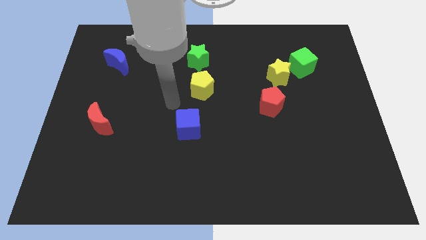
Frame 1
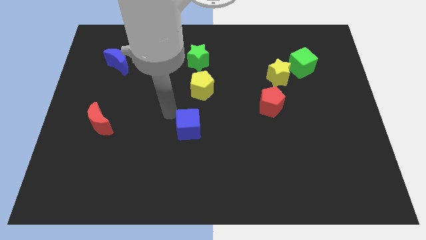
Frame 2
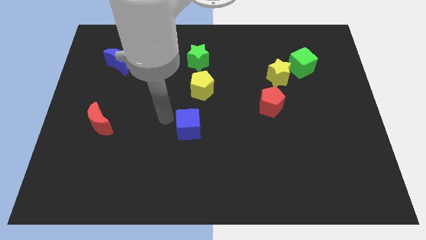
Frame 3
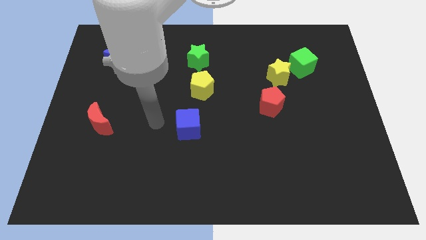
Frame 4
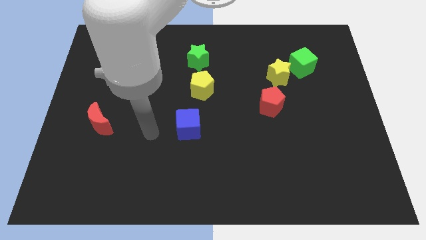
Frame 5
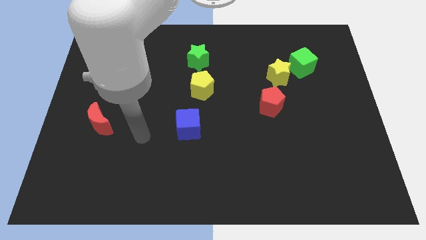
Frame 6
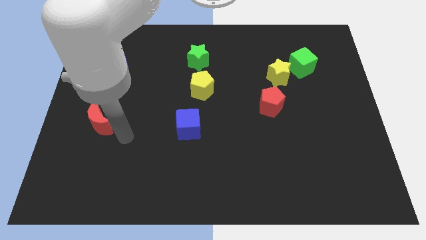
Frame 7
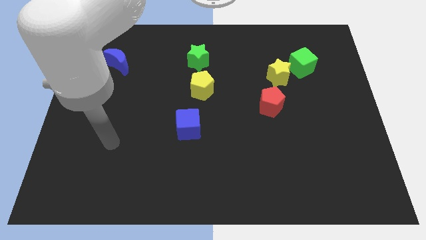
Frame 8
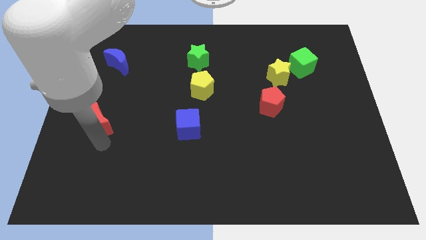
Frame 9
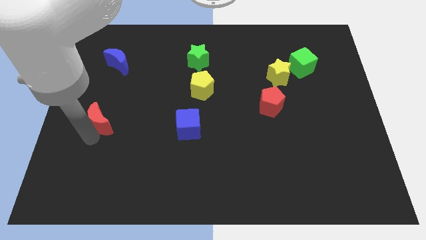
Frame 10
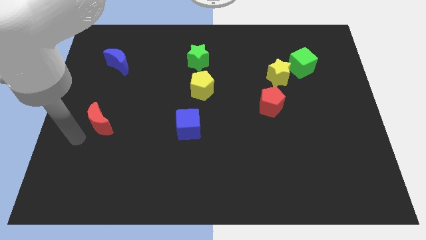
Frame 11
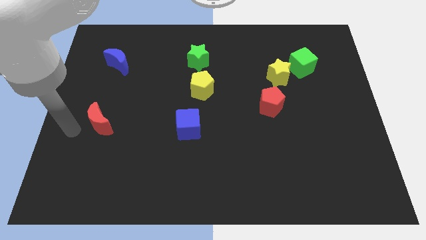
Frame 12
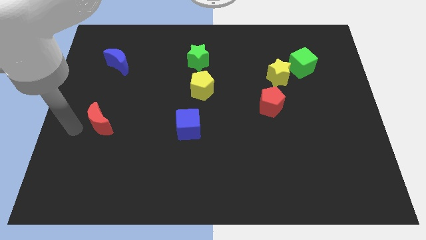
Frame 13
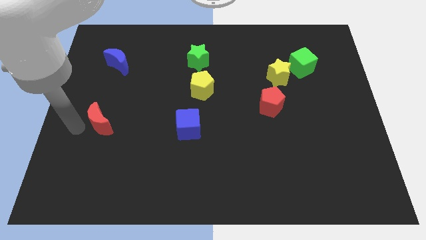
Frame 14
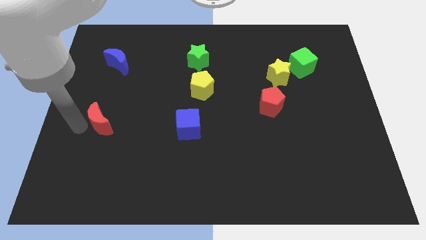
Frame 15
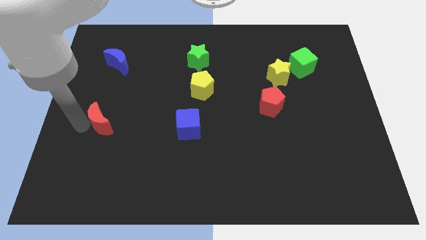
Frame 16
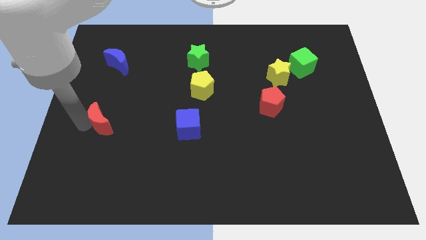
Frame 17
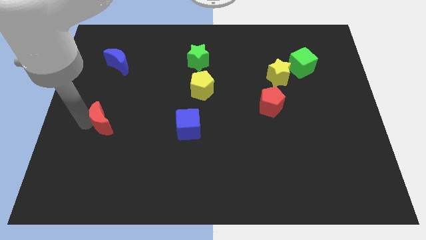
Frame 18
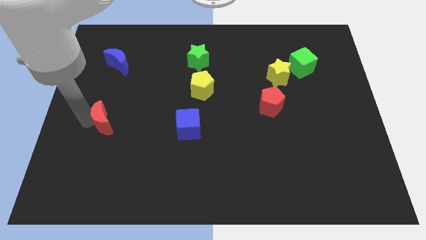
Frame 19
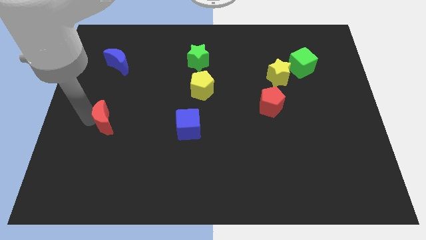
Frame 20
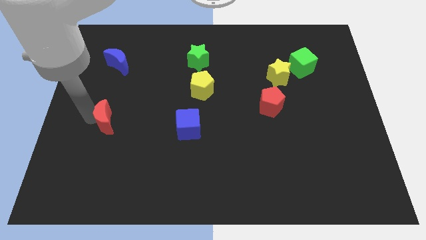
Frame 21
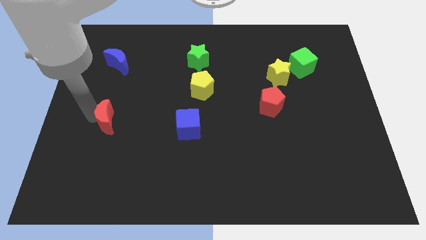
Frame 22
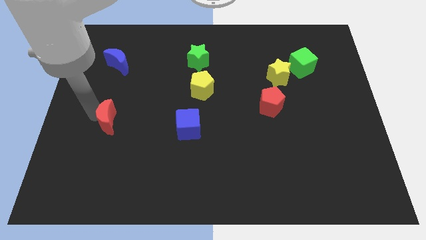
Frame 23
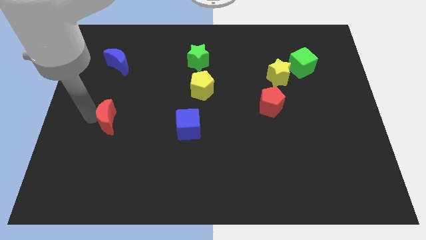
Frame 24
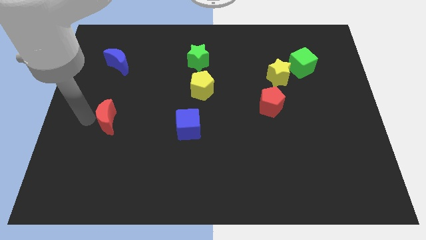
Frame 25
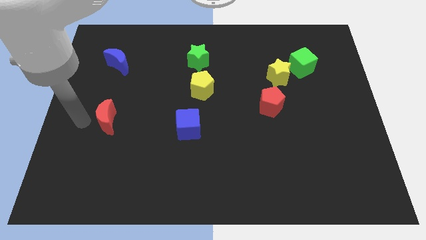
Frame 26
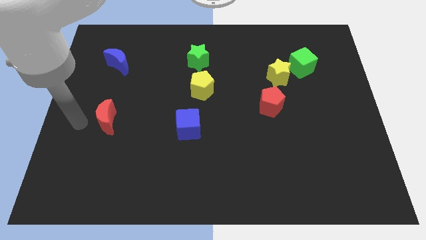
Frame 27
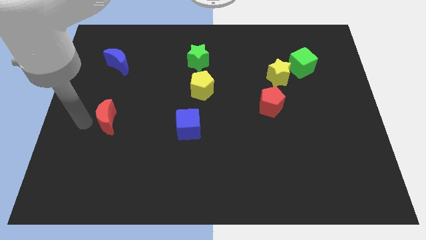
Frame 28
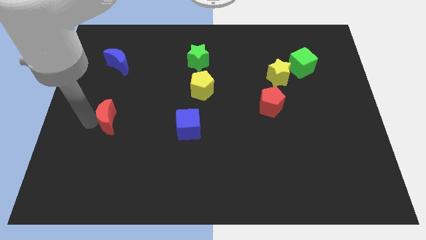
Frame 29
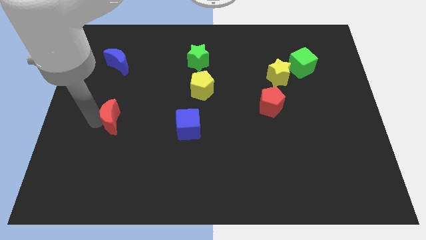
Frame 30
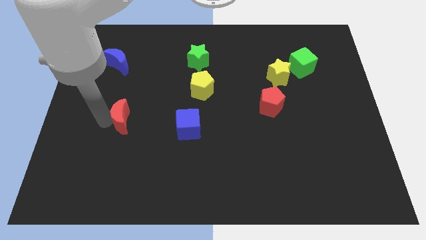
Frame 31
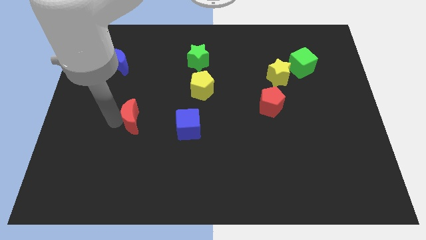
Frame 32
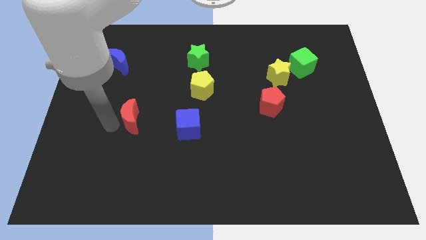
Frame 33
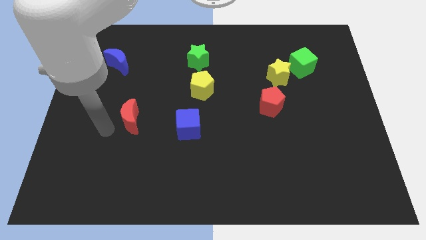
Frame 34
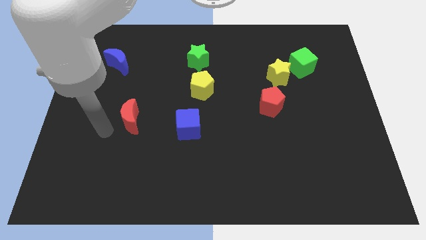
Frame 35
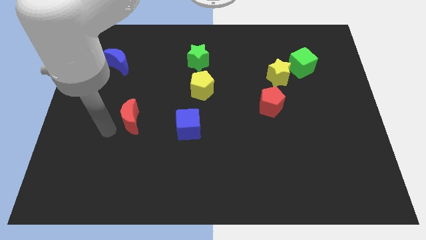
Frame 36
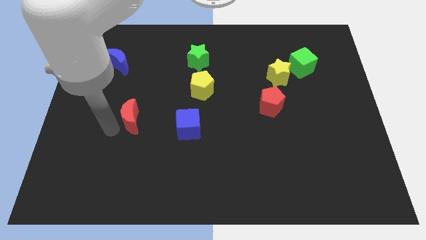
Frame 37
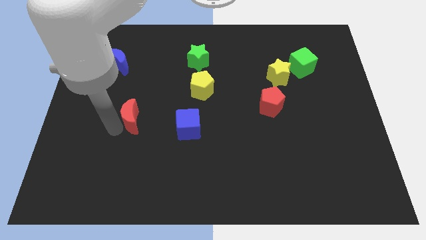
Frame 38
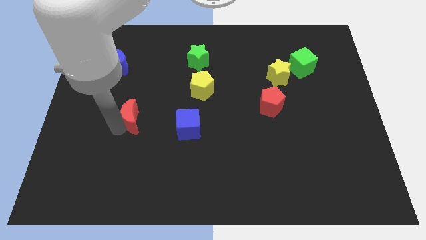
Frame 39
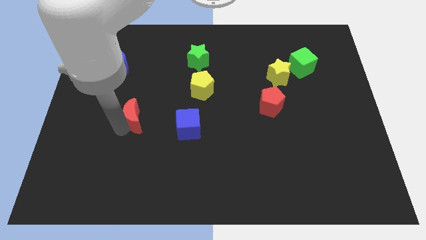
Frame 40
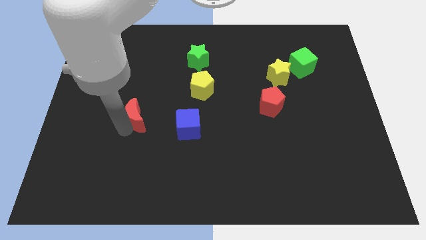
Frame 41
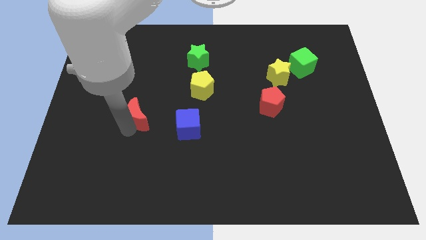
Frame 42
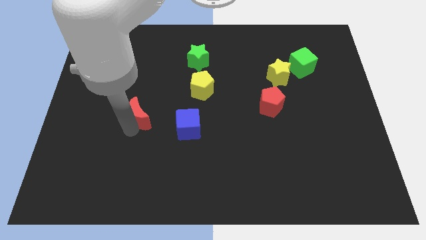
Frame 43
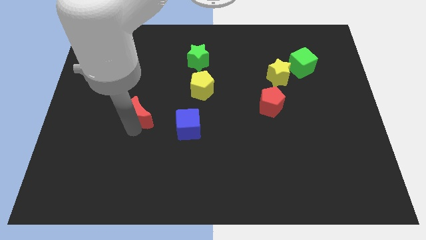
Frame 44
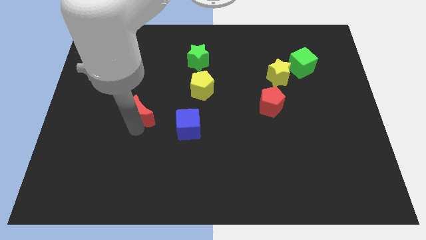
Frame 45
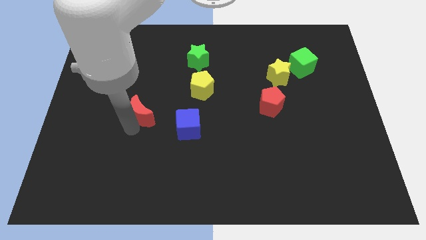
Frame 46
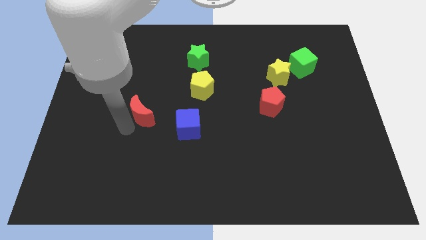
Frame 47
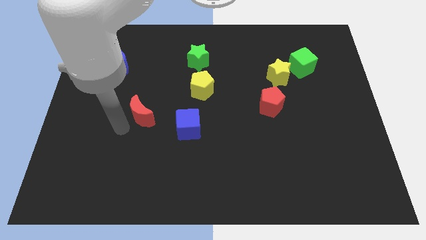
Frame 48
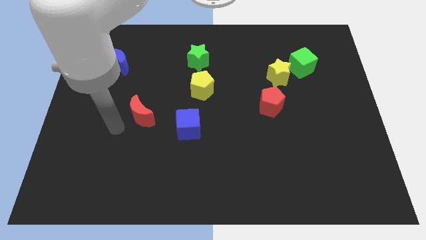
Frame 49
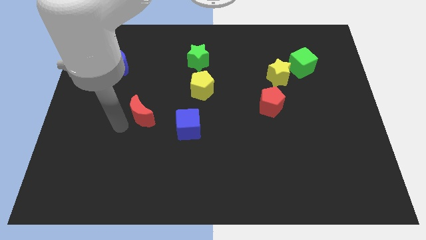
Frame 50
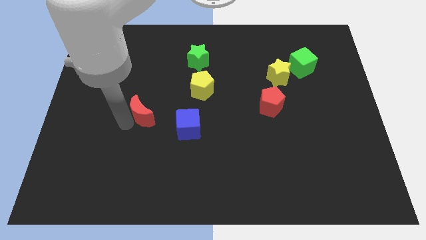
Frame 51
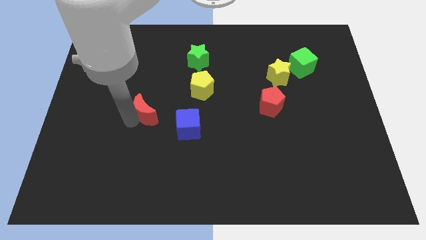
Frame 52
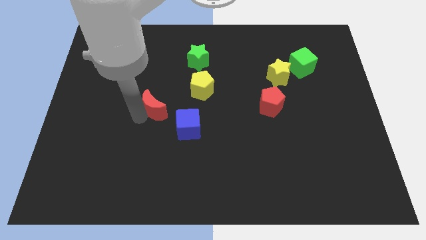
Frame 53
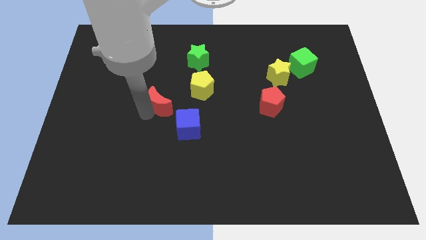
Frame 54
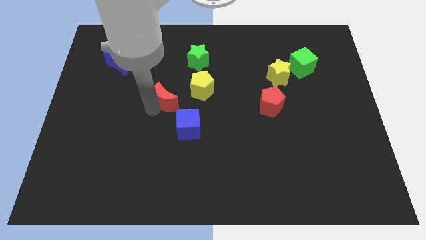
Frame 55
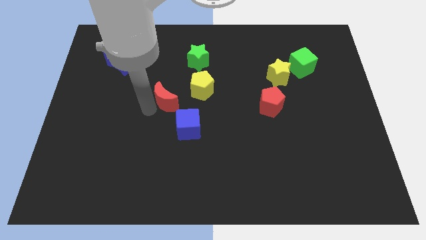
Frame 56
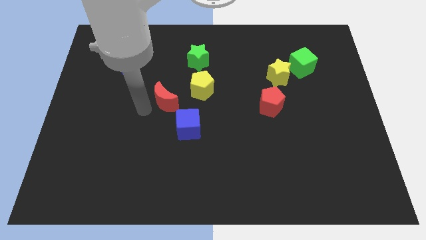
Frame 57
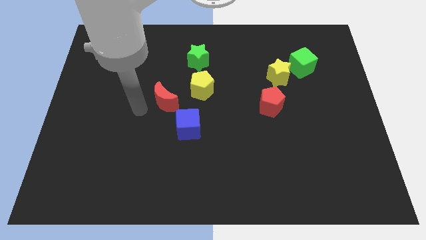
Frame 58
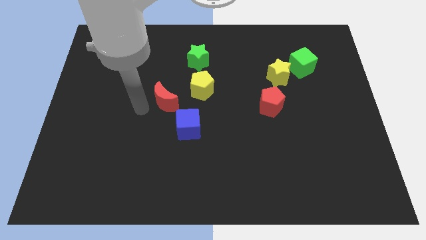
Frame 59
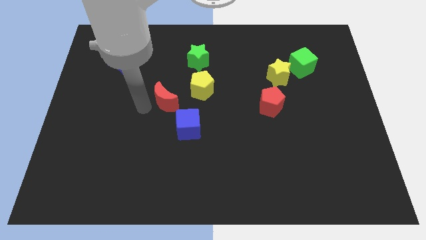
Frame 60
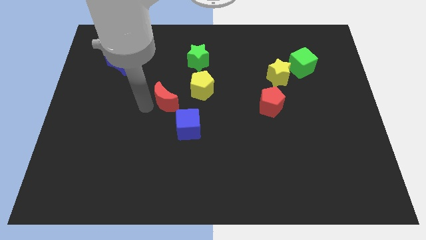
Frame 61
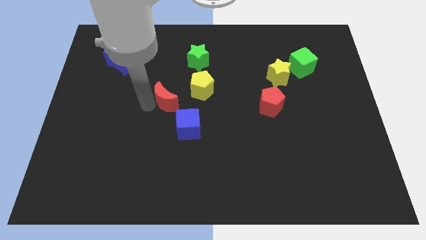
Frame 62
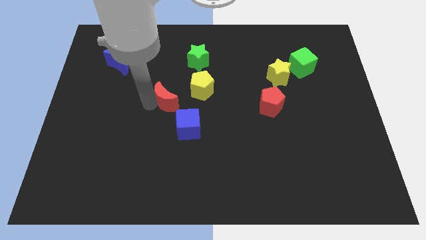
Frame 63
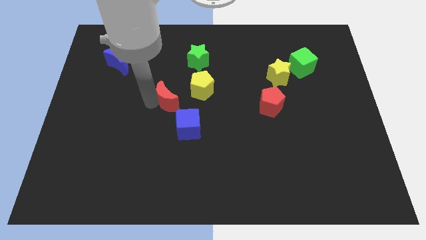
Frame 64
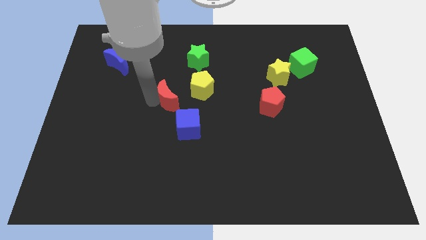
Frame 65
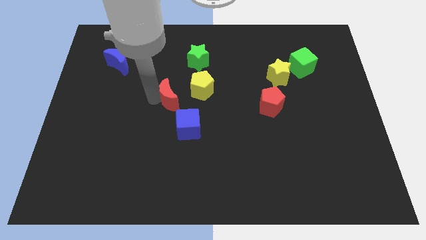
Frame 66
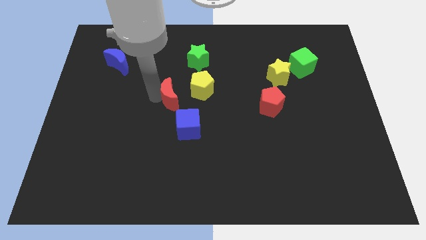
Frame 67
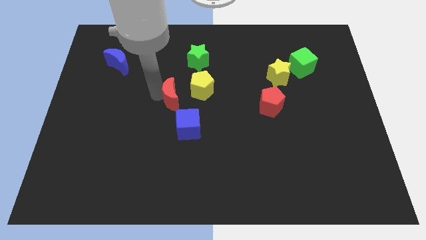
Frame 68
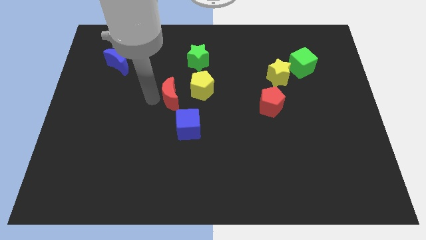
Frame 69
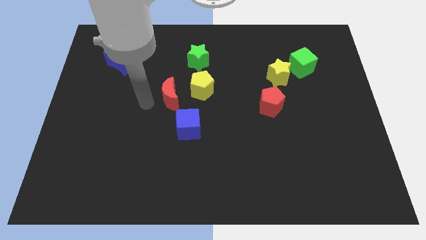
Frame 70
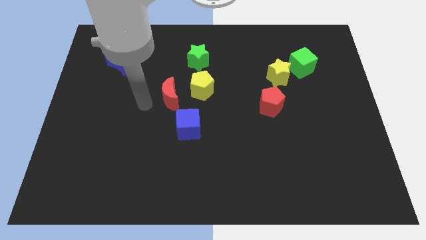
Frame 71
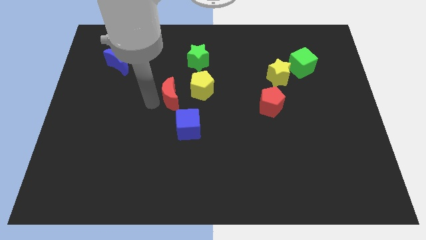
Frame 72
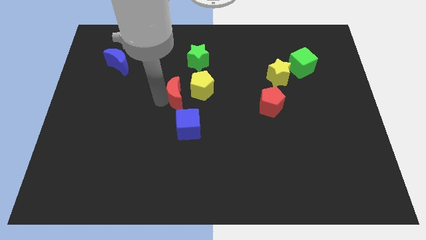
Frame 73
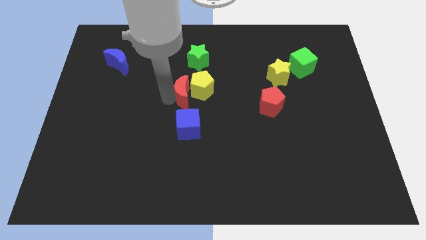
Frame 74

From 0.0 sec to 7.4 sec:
move the red moon next to the yellow pentagon
